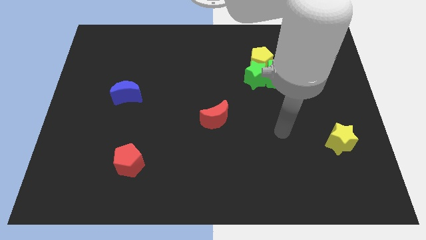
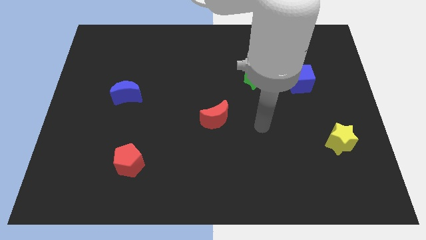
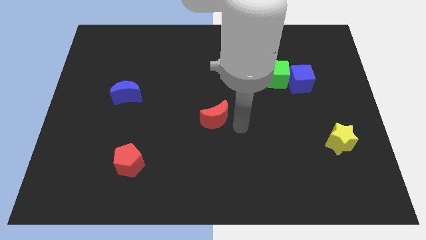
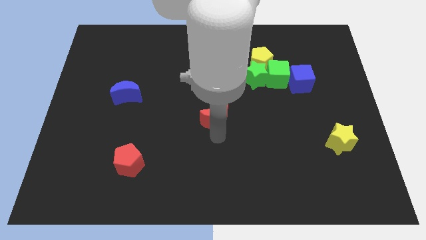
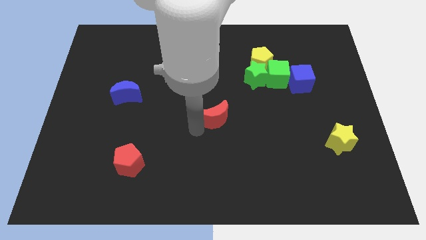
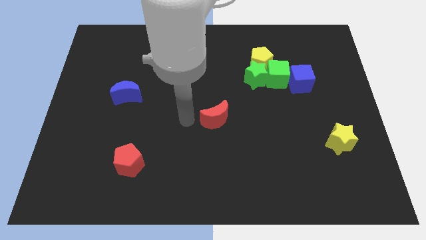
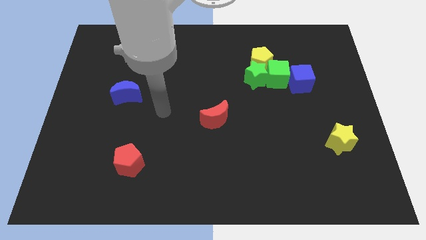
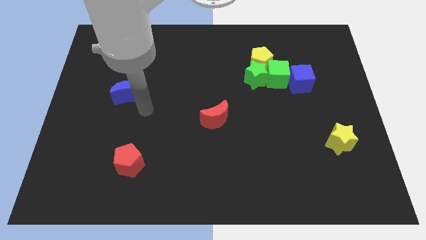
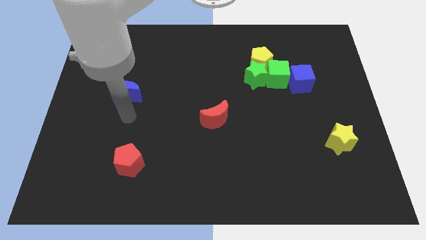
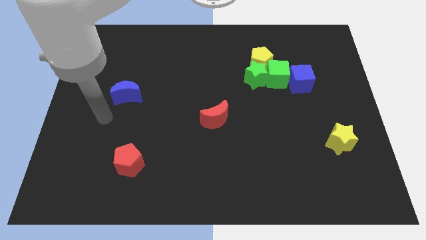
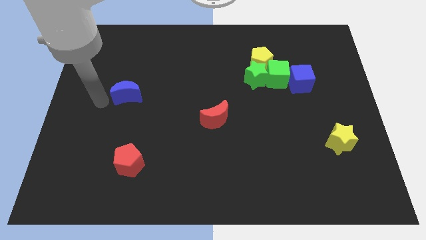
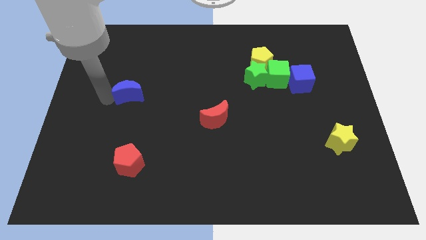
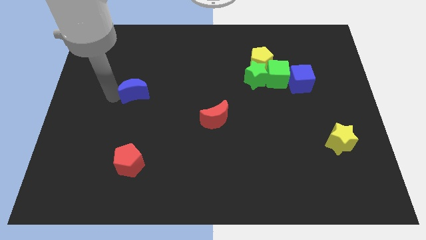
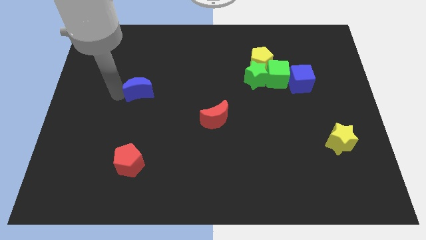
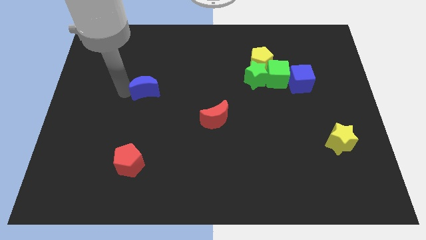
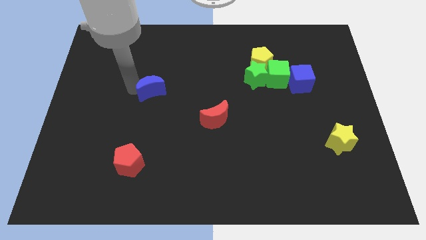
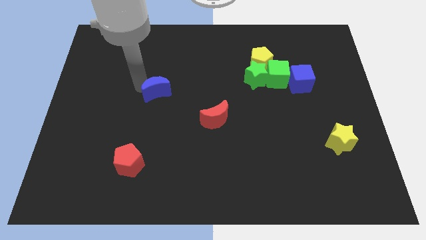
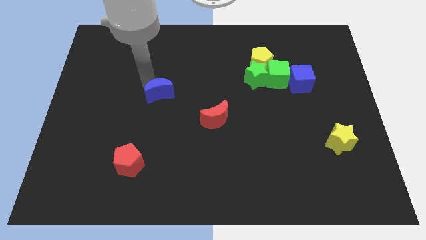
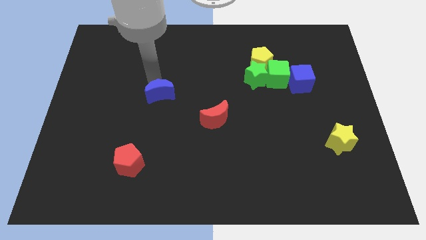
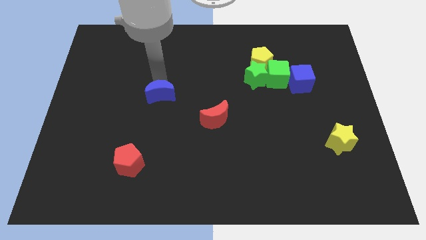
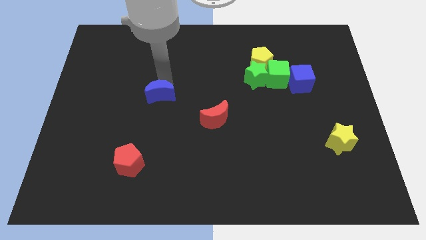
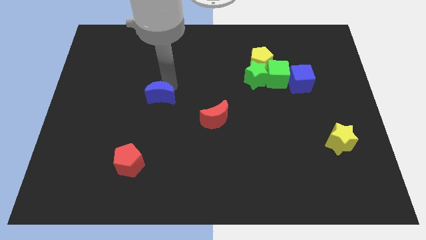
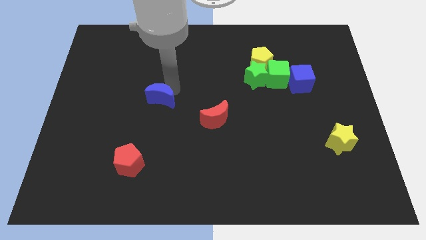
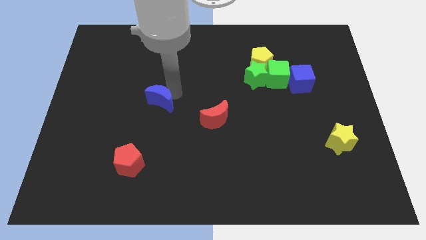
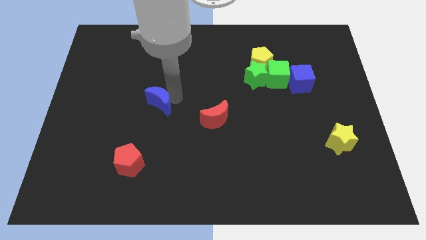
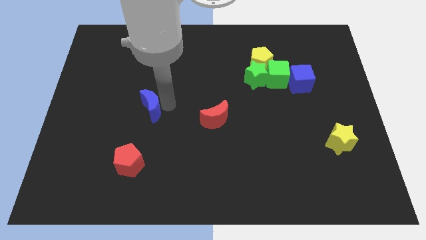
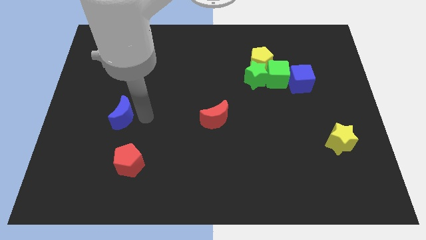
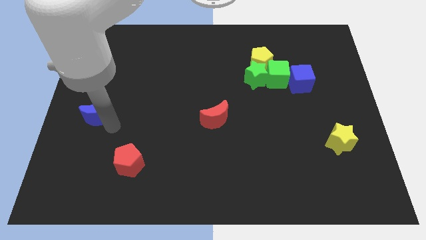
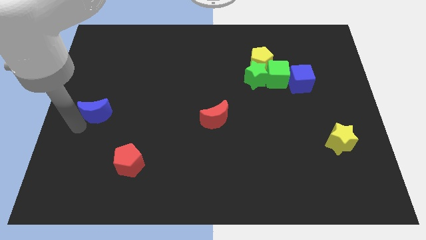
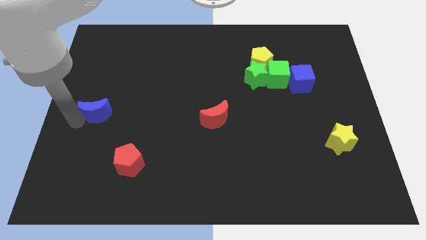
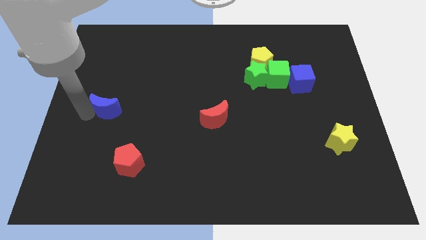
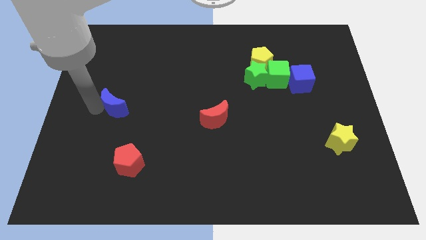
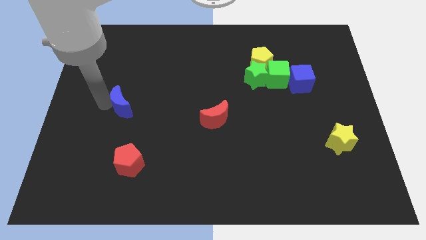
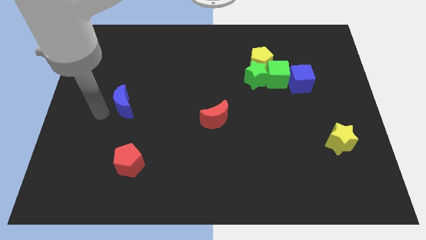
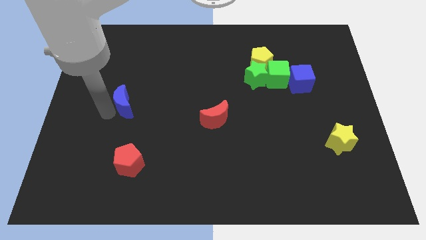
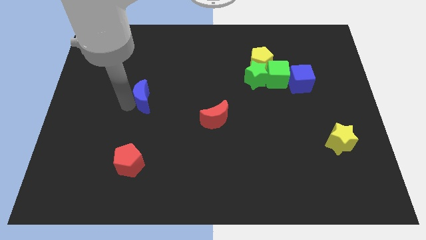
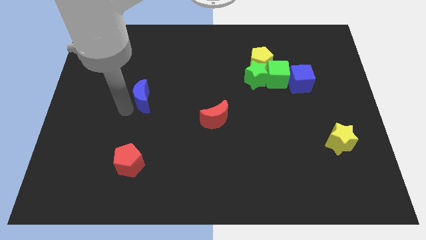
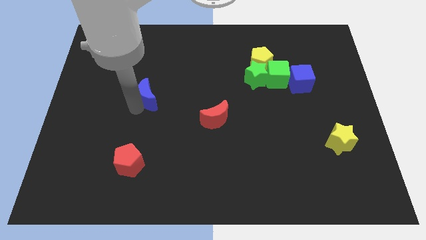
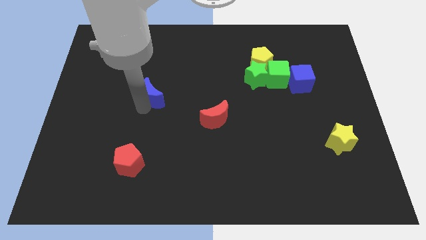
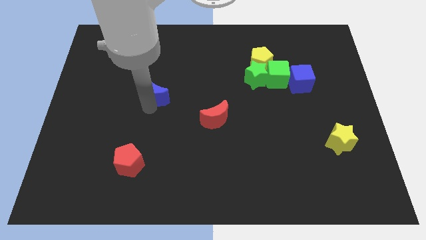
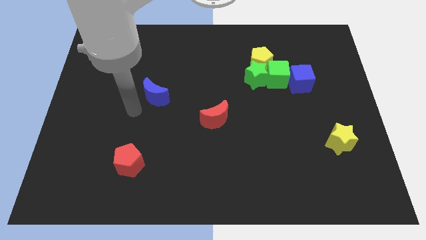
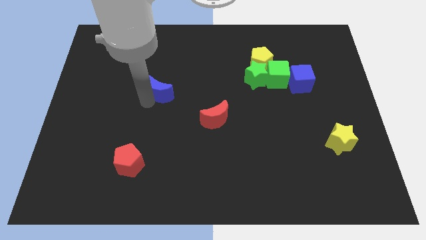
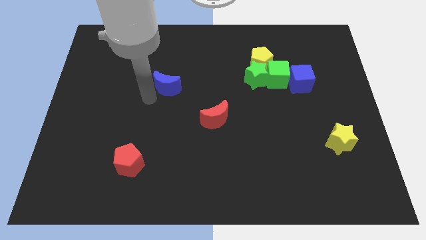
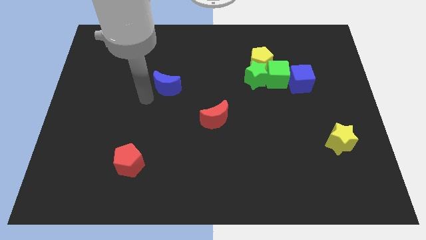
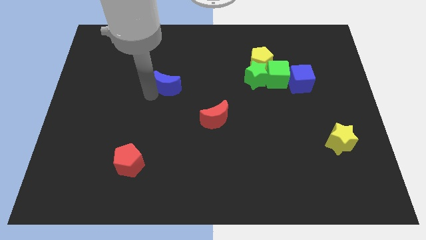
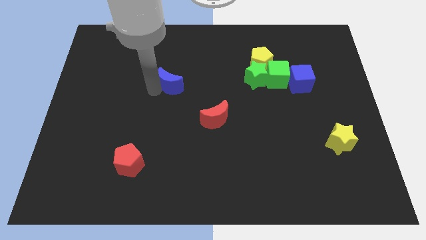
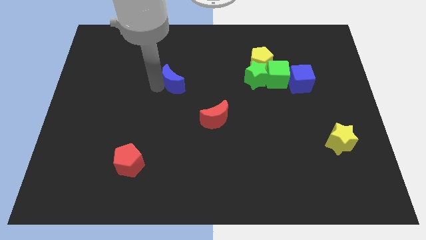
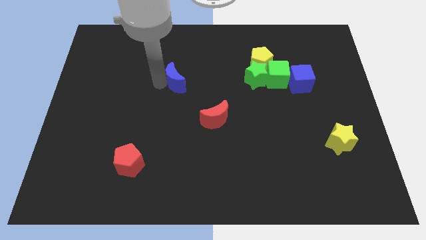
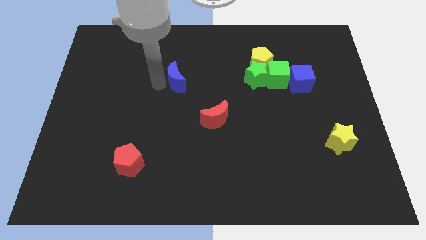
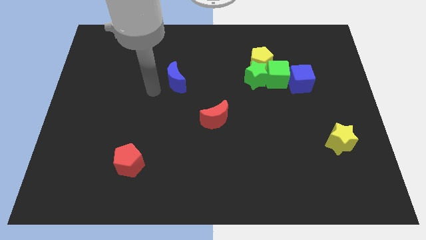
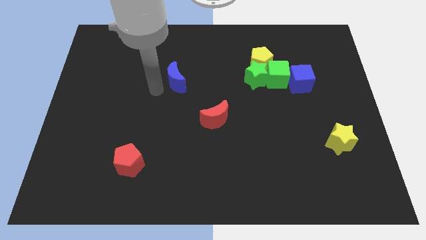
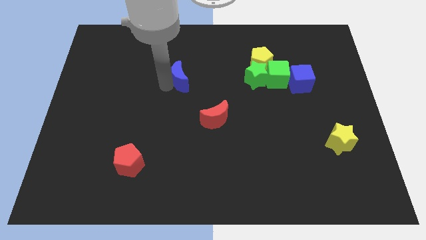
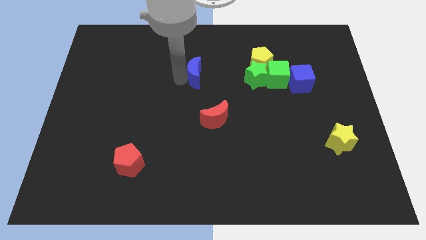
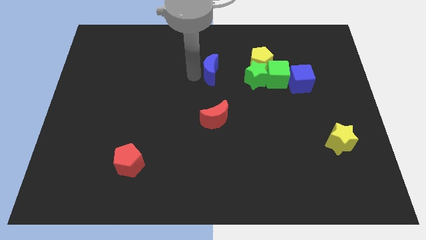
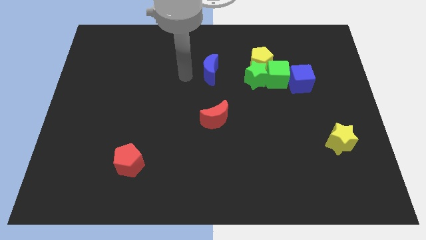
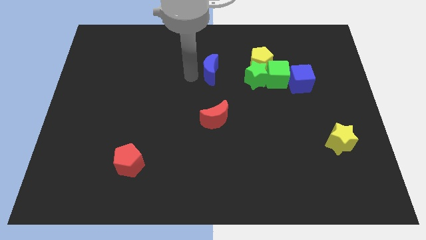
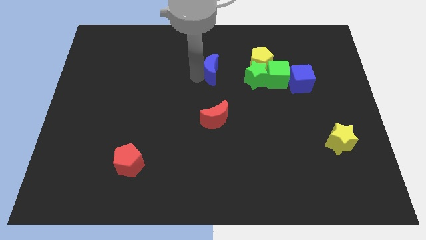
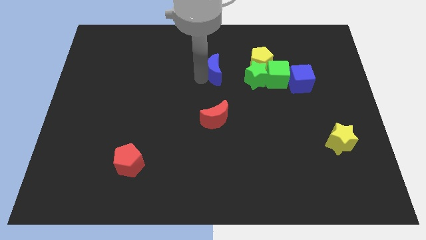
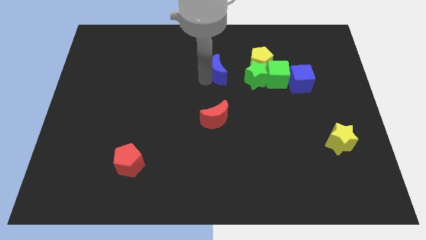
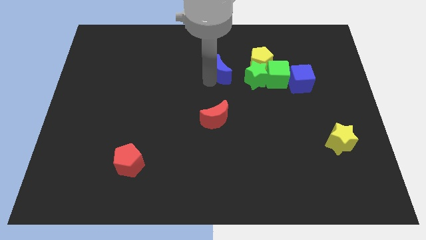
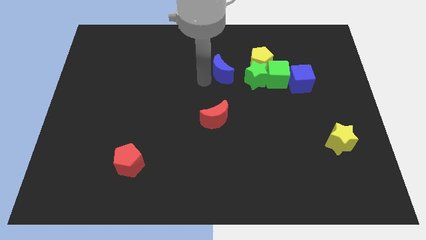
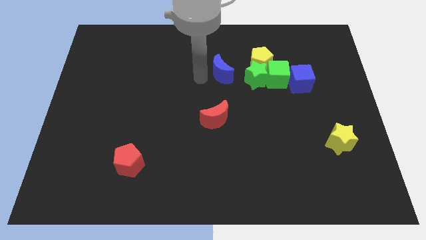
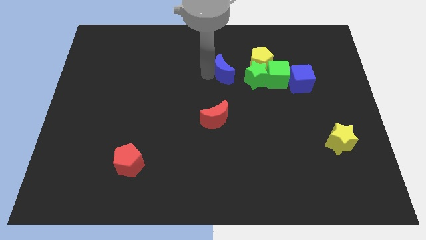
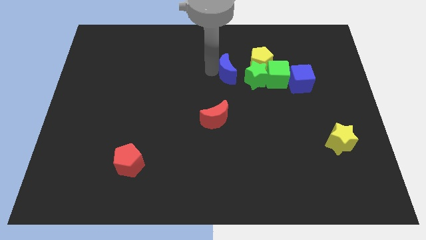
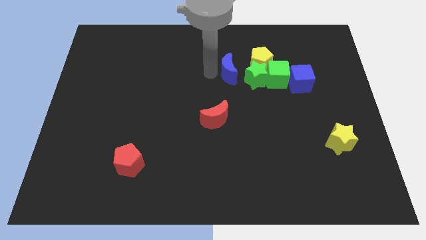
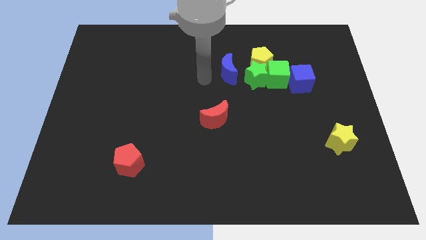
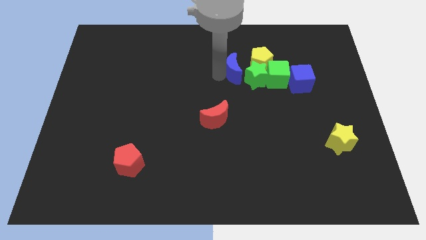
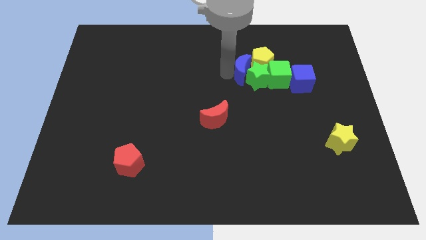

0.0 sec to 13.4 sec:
move the blue moon to the yellow pentagon

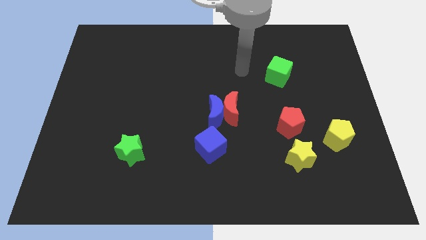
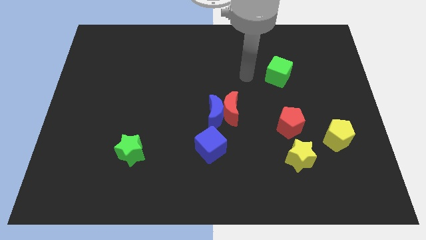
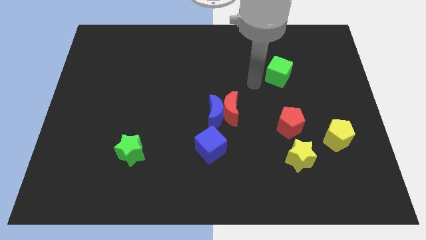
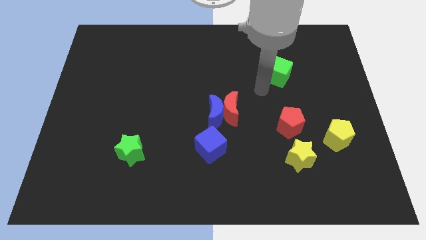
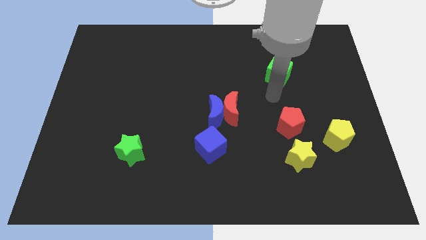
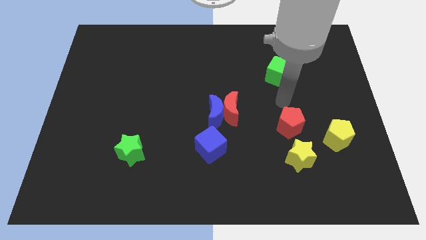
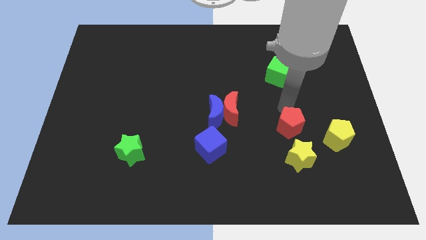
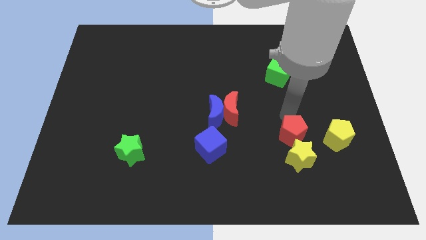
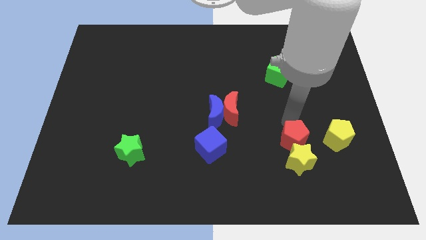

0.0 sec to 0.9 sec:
slide the red pentagon towards the yellow star
